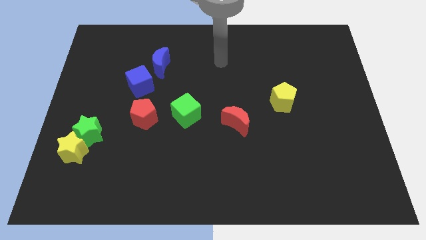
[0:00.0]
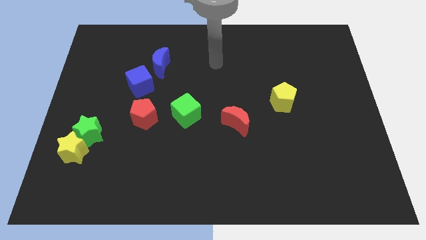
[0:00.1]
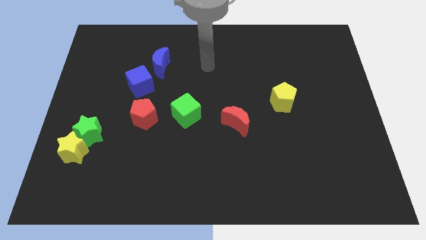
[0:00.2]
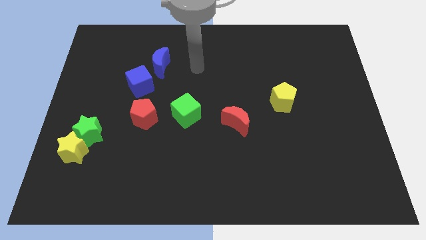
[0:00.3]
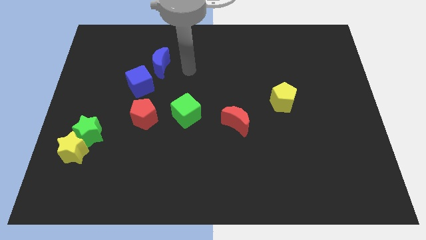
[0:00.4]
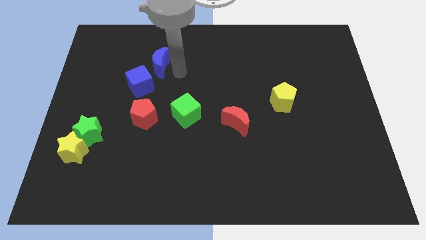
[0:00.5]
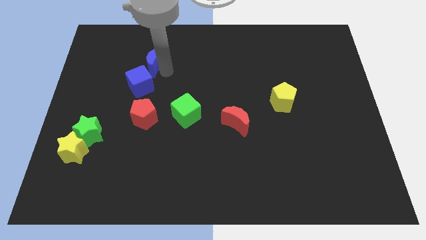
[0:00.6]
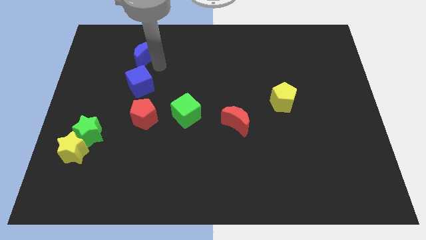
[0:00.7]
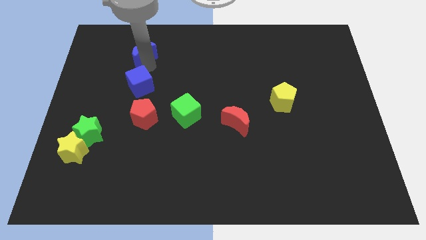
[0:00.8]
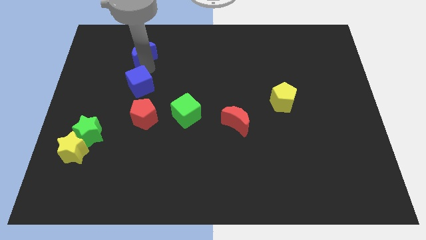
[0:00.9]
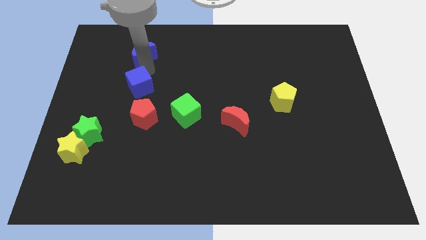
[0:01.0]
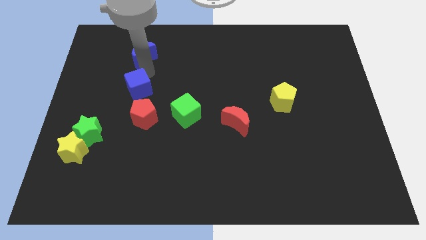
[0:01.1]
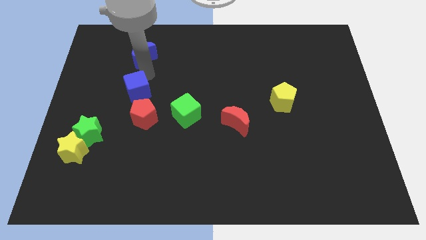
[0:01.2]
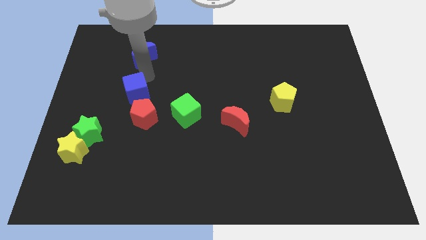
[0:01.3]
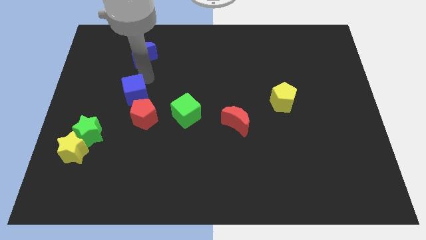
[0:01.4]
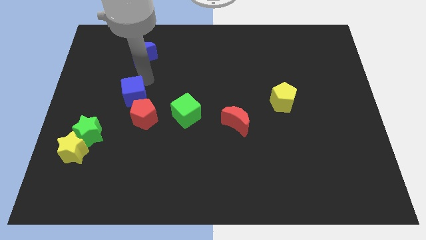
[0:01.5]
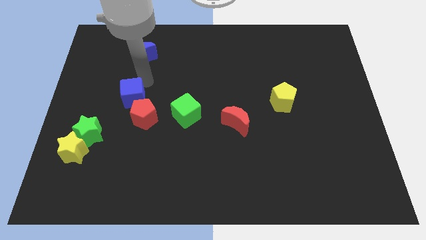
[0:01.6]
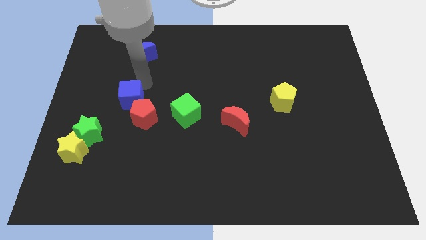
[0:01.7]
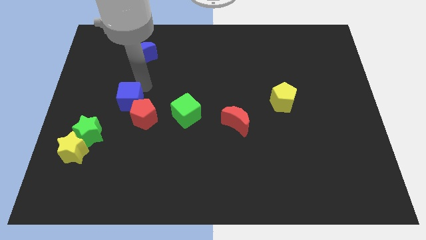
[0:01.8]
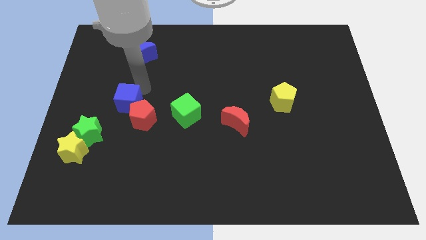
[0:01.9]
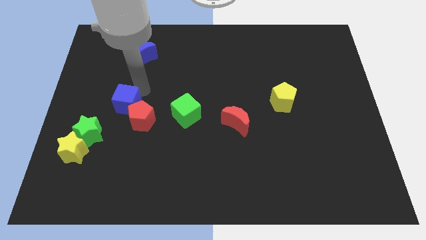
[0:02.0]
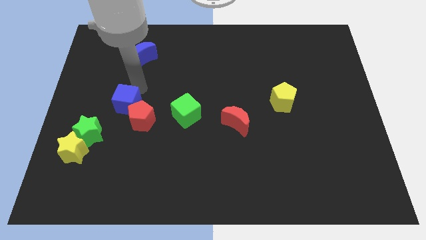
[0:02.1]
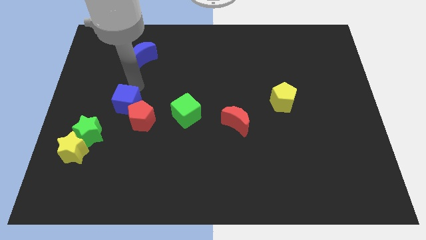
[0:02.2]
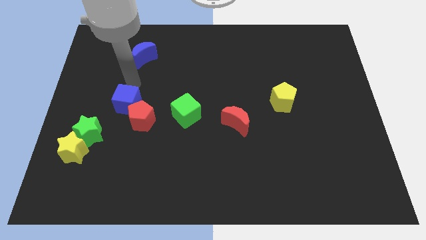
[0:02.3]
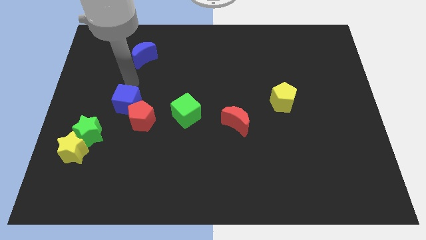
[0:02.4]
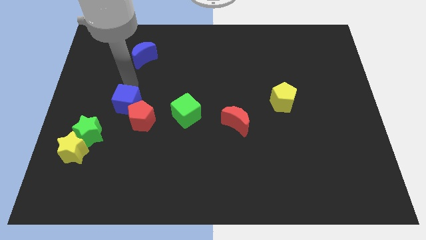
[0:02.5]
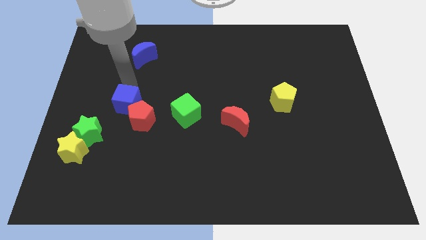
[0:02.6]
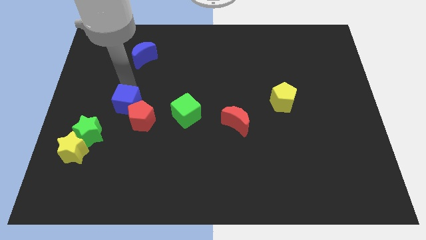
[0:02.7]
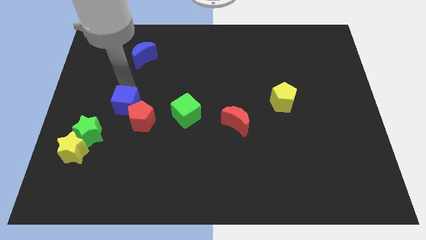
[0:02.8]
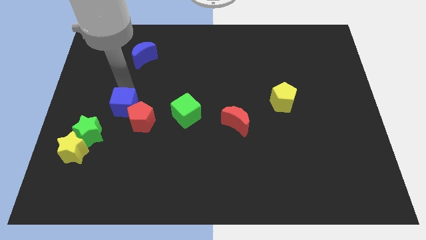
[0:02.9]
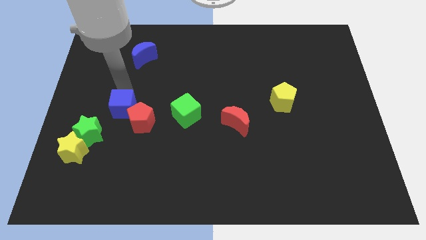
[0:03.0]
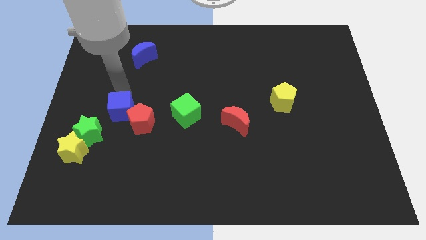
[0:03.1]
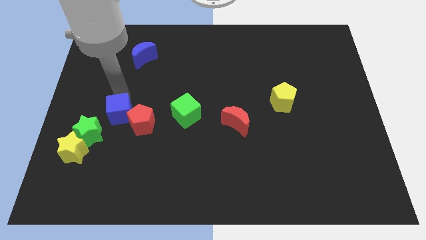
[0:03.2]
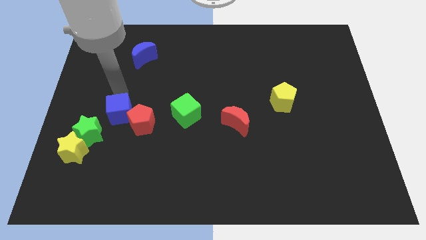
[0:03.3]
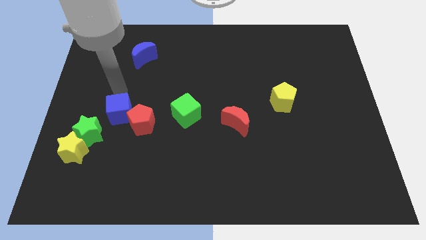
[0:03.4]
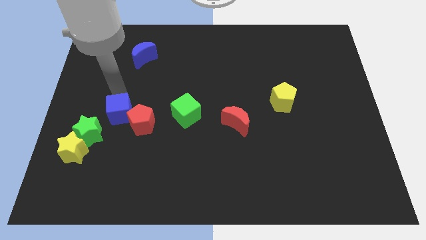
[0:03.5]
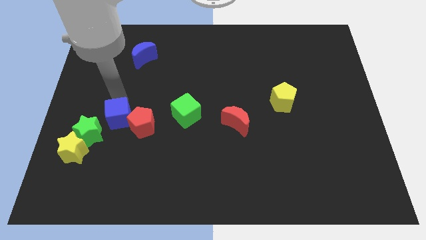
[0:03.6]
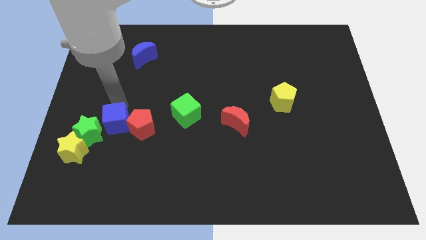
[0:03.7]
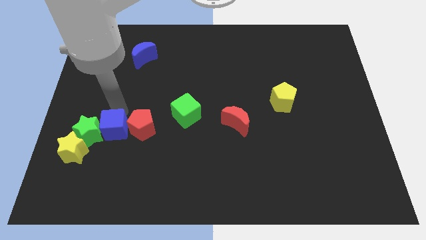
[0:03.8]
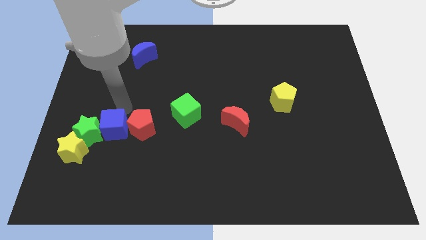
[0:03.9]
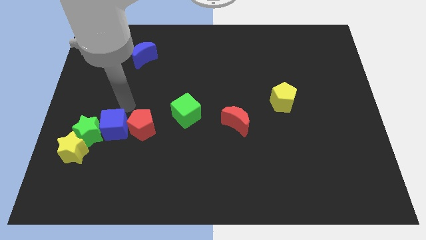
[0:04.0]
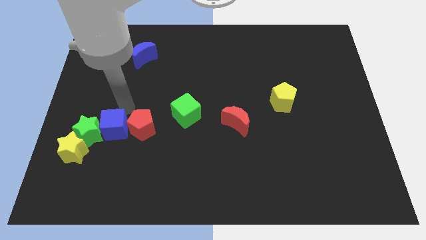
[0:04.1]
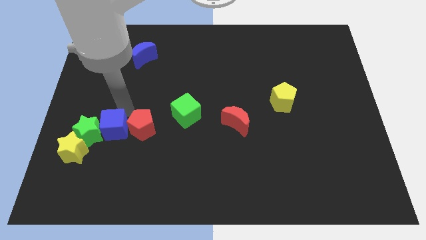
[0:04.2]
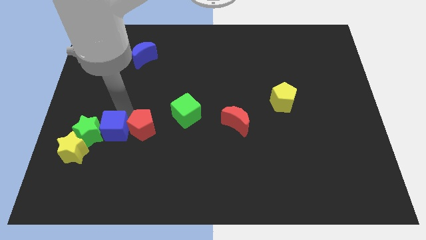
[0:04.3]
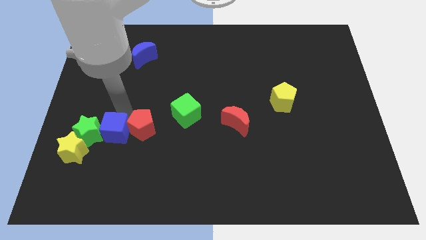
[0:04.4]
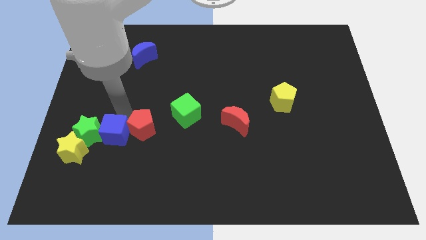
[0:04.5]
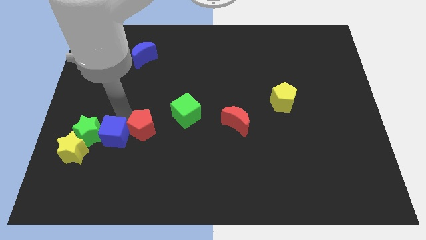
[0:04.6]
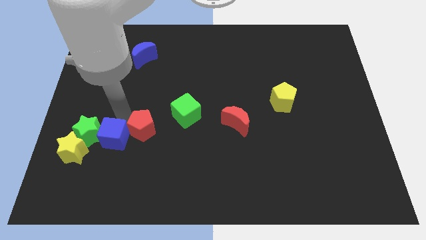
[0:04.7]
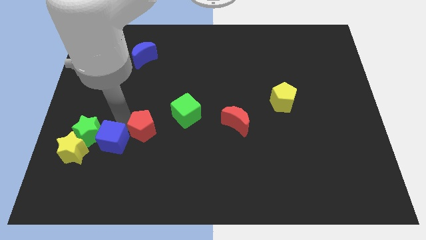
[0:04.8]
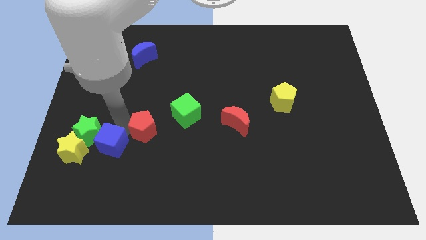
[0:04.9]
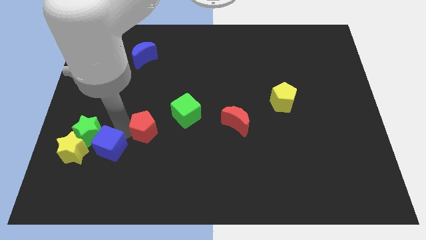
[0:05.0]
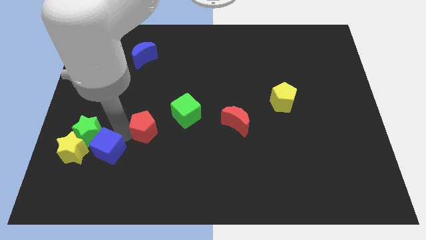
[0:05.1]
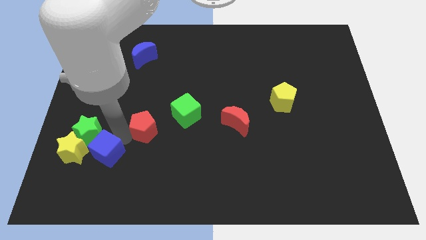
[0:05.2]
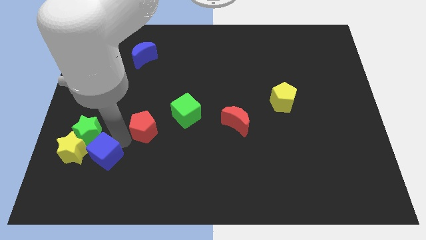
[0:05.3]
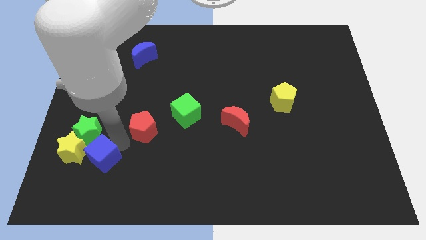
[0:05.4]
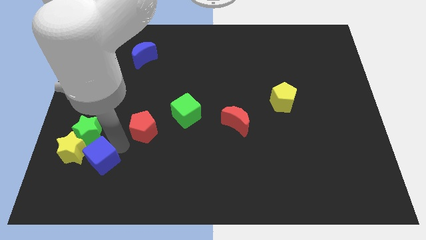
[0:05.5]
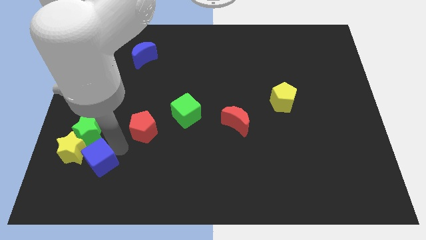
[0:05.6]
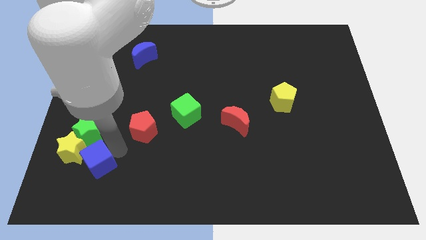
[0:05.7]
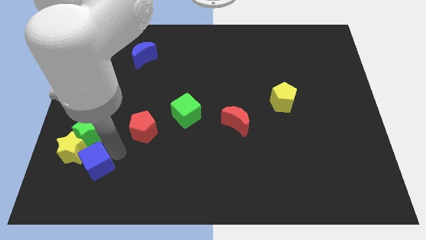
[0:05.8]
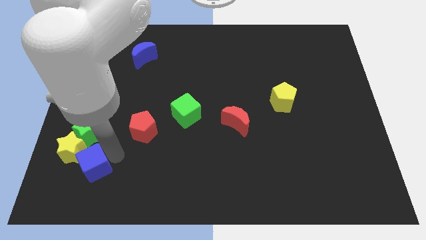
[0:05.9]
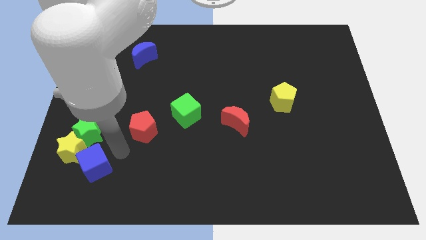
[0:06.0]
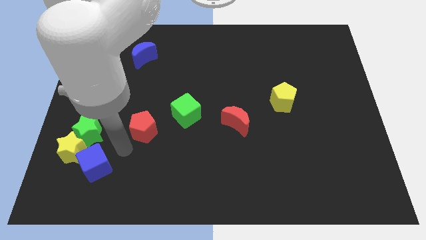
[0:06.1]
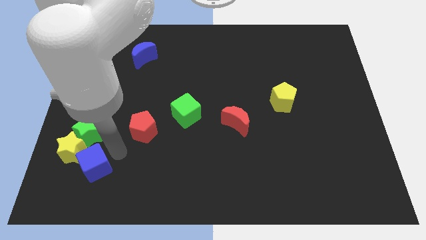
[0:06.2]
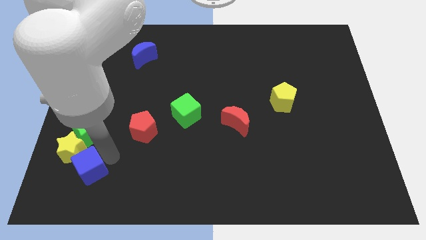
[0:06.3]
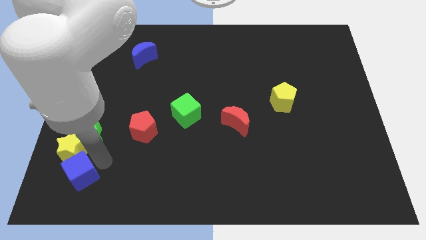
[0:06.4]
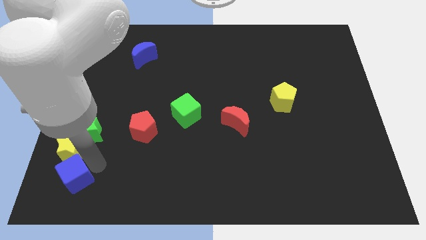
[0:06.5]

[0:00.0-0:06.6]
slide the blue cube to the bottom left
